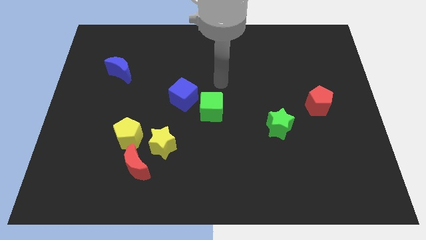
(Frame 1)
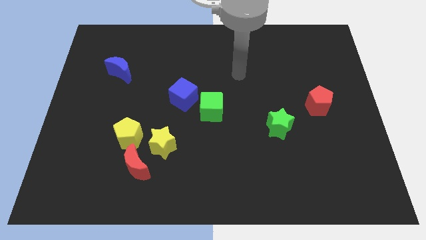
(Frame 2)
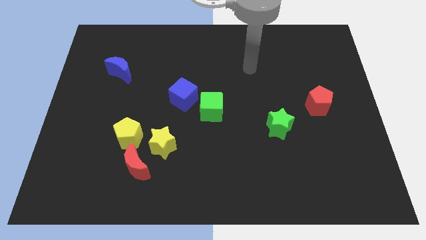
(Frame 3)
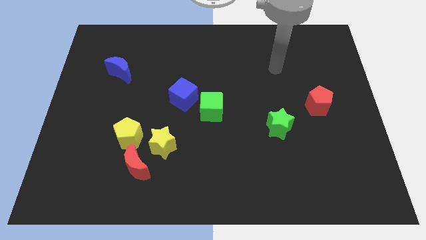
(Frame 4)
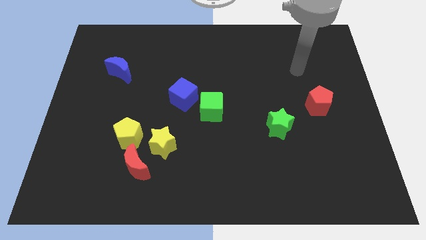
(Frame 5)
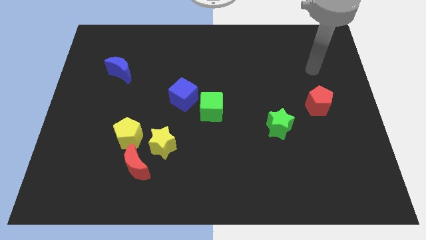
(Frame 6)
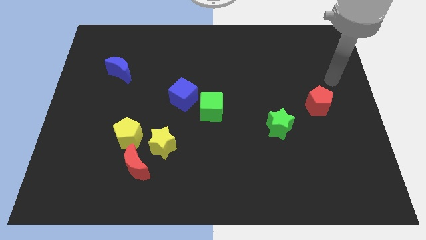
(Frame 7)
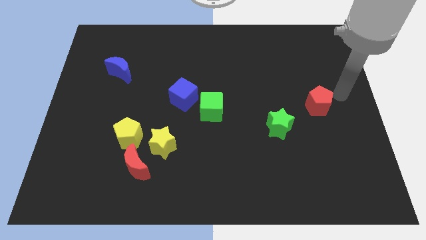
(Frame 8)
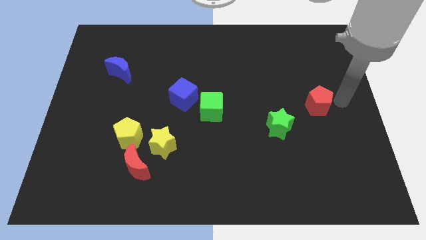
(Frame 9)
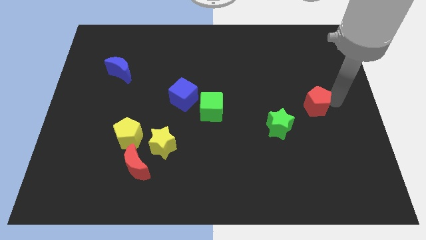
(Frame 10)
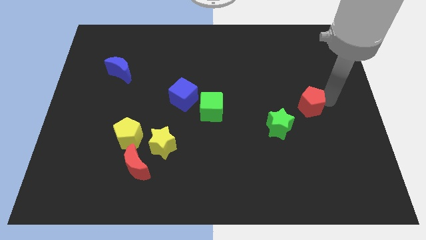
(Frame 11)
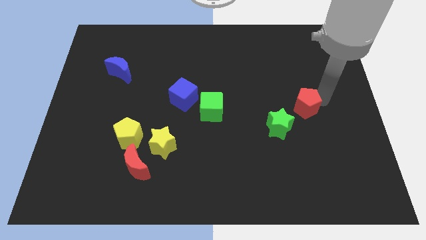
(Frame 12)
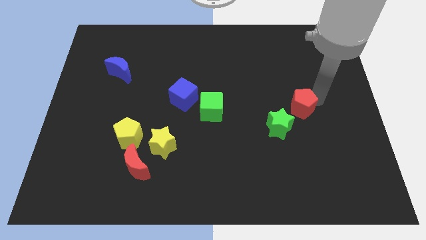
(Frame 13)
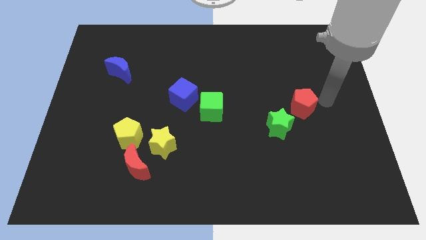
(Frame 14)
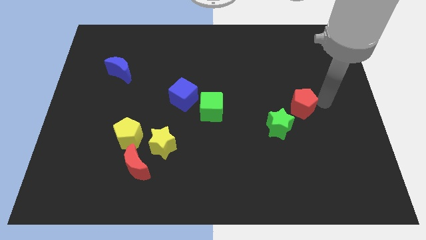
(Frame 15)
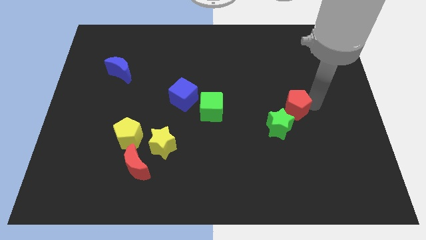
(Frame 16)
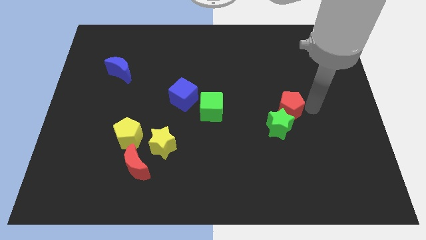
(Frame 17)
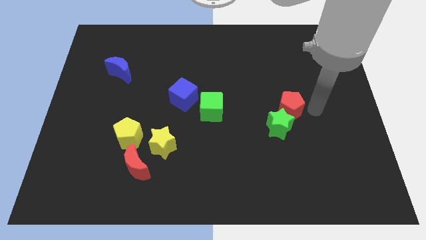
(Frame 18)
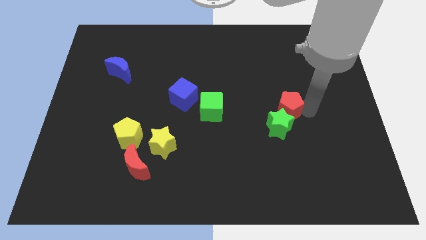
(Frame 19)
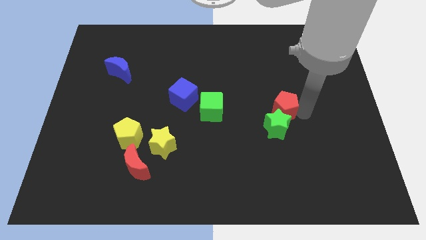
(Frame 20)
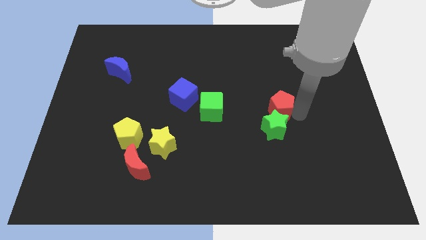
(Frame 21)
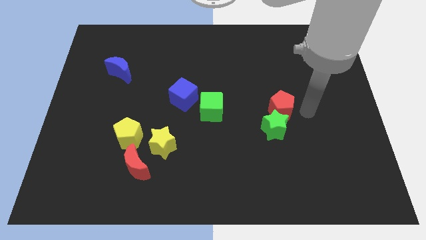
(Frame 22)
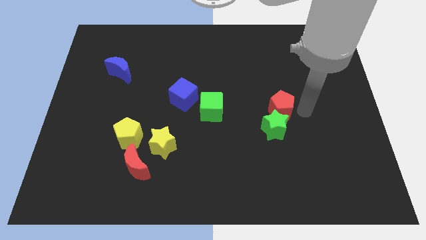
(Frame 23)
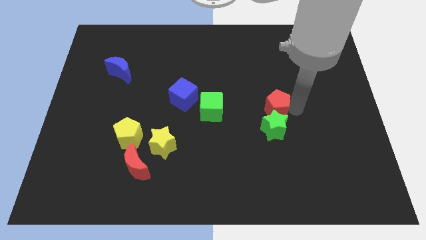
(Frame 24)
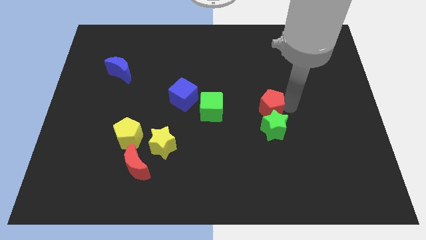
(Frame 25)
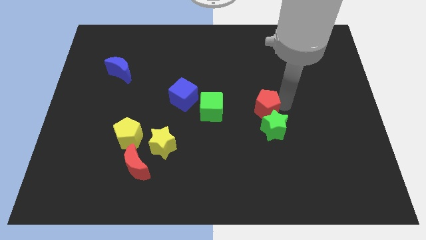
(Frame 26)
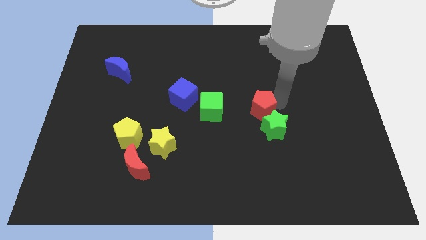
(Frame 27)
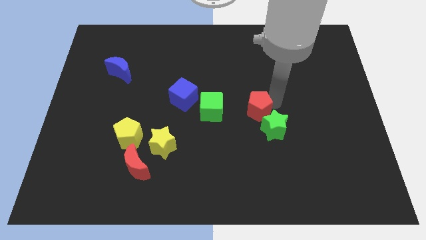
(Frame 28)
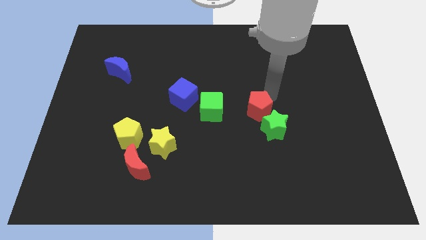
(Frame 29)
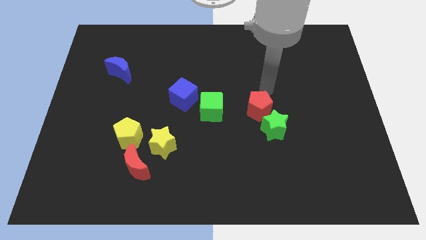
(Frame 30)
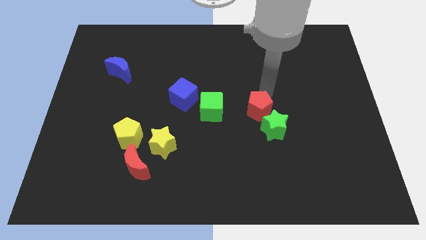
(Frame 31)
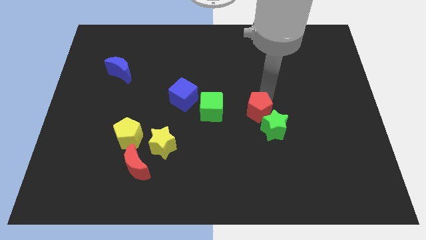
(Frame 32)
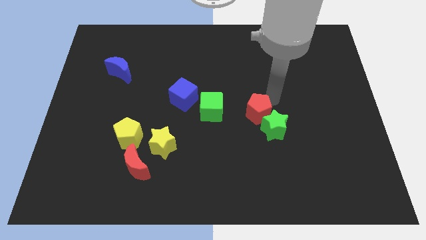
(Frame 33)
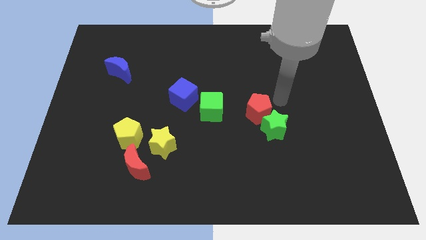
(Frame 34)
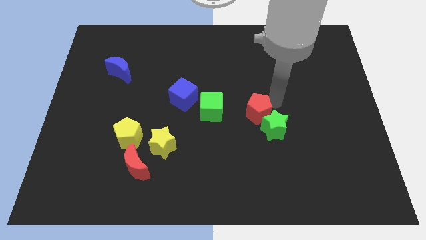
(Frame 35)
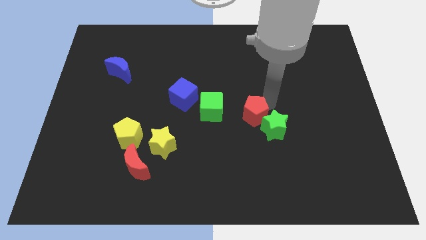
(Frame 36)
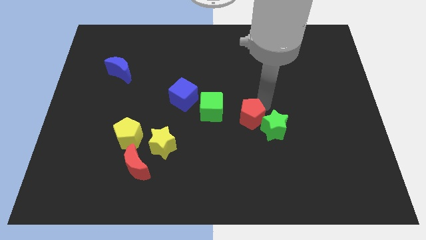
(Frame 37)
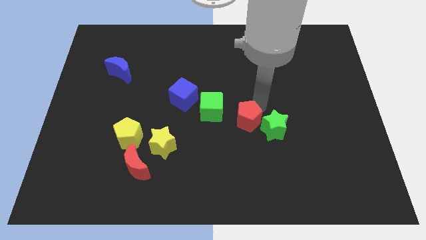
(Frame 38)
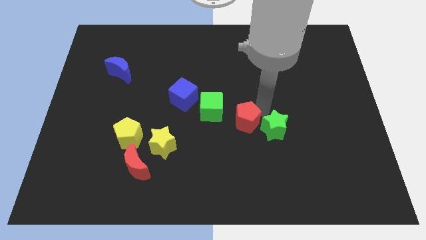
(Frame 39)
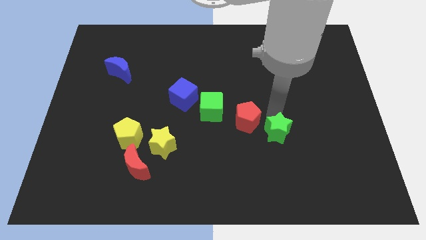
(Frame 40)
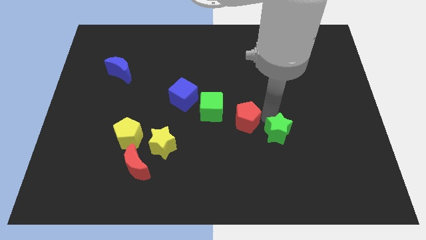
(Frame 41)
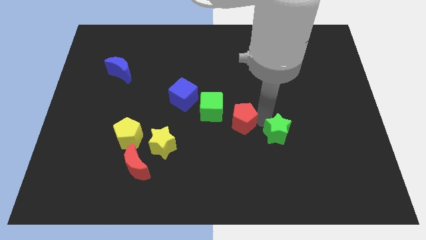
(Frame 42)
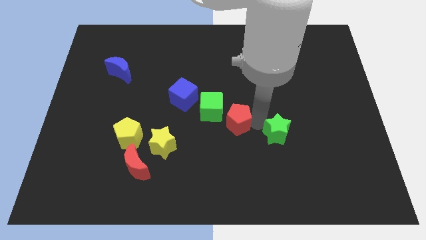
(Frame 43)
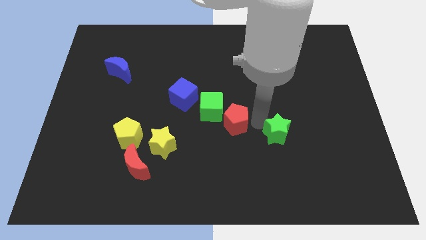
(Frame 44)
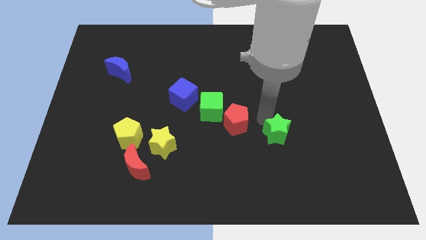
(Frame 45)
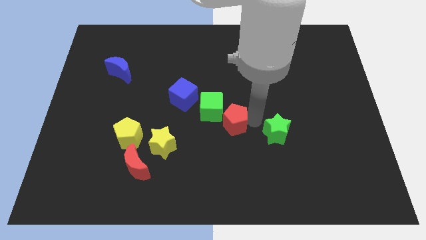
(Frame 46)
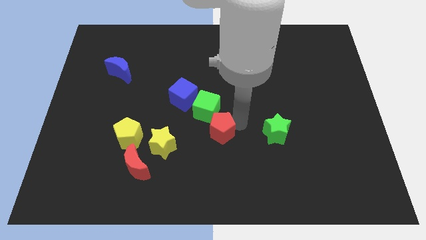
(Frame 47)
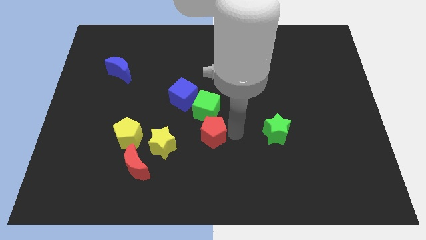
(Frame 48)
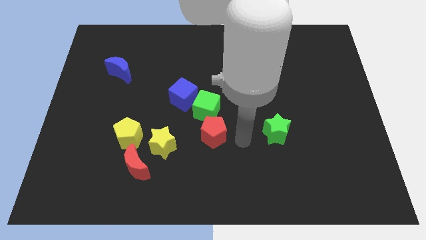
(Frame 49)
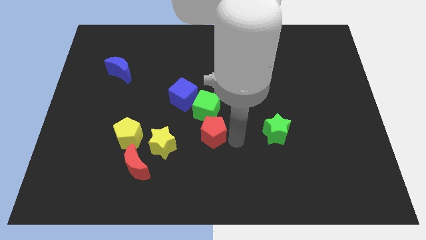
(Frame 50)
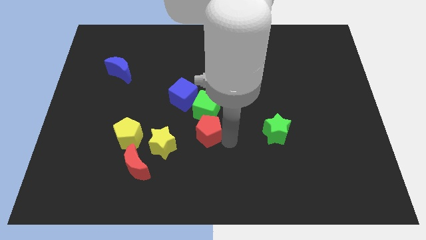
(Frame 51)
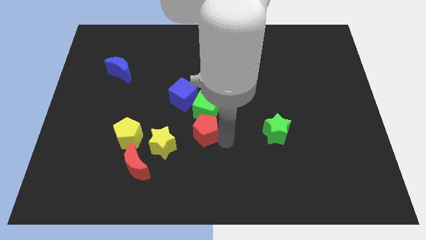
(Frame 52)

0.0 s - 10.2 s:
slide the red pentagon diagonally down and to the left of the green cube

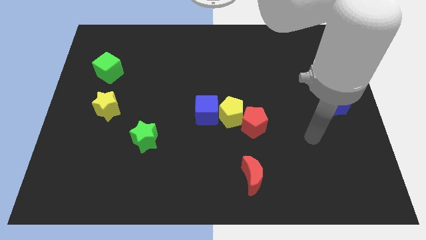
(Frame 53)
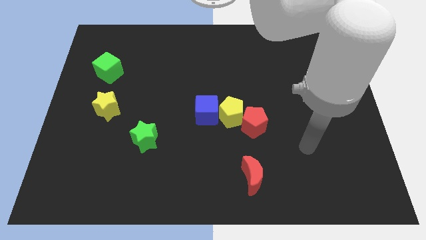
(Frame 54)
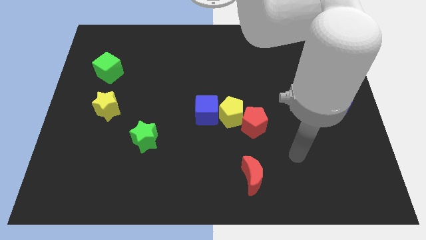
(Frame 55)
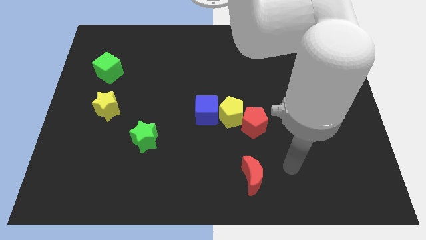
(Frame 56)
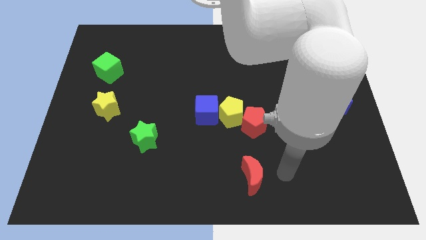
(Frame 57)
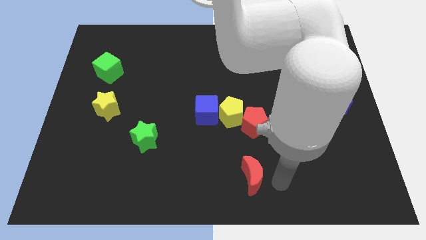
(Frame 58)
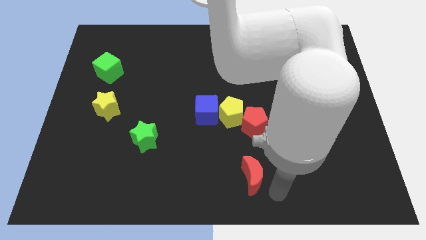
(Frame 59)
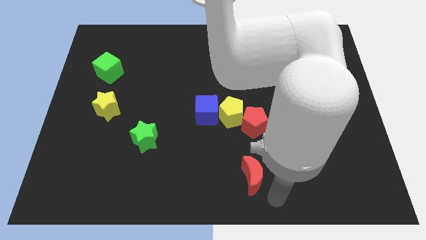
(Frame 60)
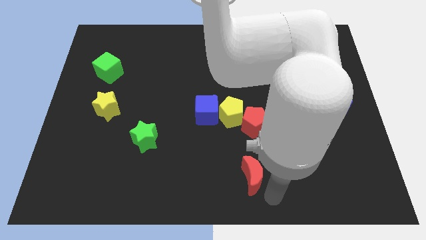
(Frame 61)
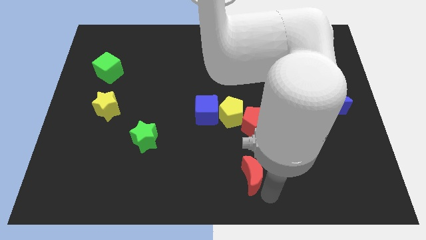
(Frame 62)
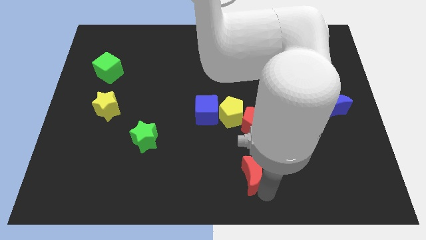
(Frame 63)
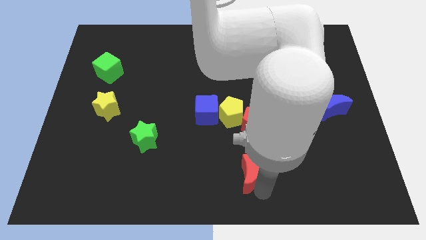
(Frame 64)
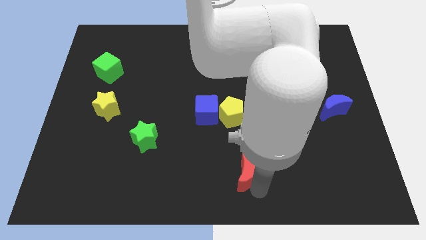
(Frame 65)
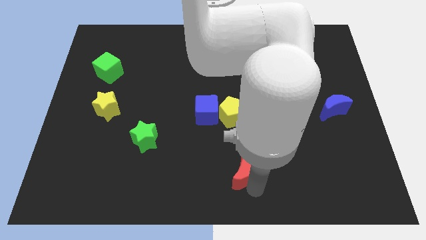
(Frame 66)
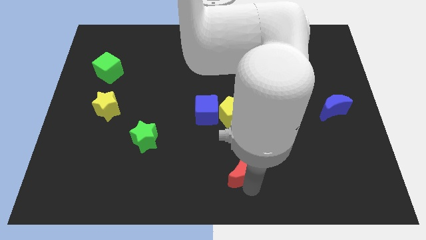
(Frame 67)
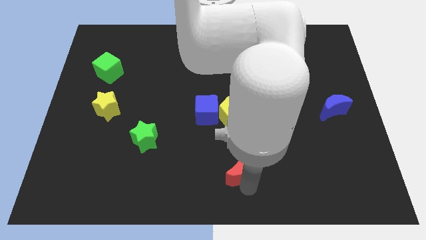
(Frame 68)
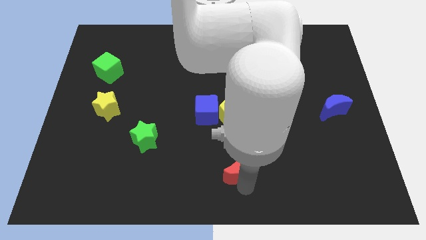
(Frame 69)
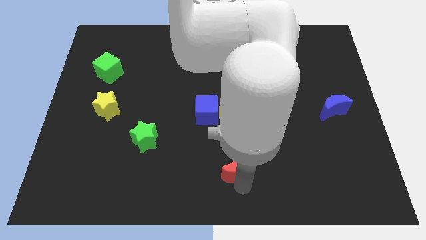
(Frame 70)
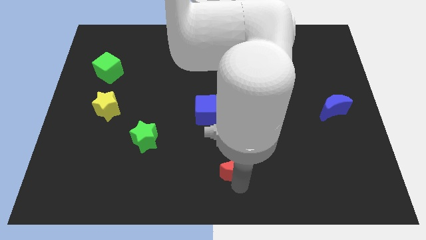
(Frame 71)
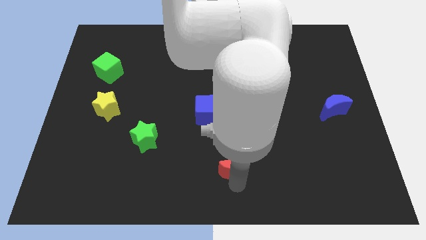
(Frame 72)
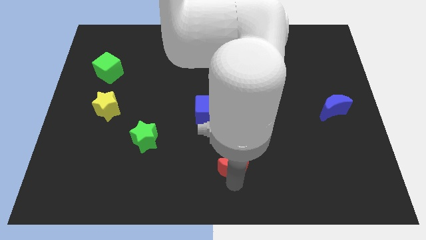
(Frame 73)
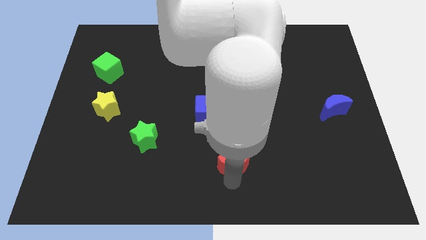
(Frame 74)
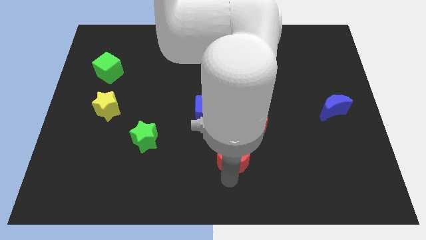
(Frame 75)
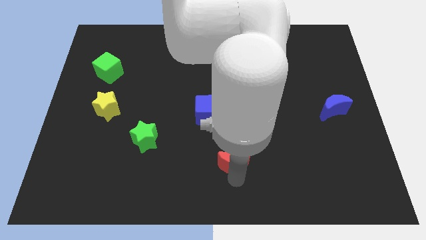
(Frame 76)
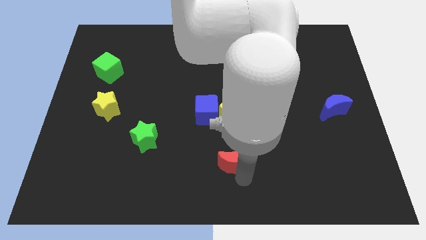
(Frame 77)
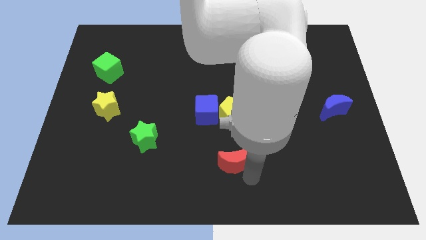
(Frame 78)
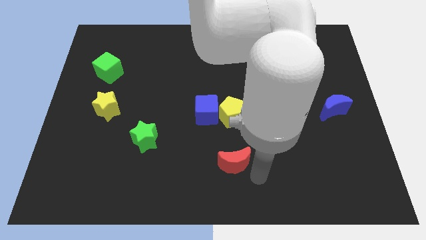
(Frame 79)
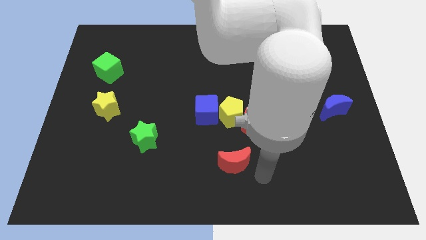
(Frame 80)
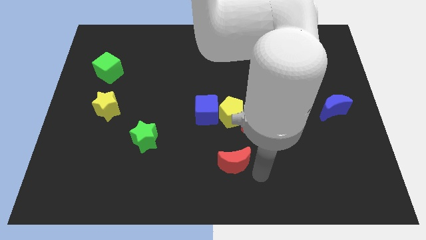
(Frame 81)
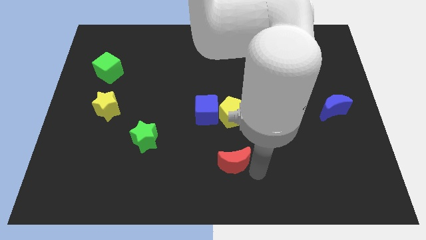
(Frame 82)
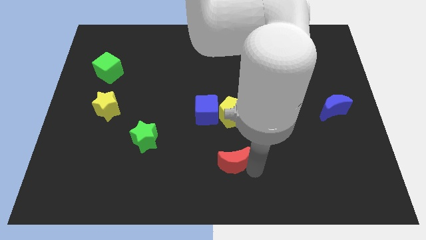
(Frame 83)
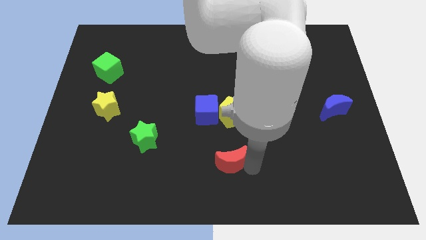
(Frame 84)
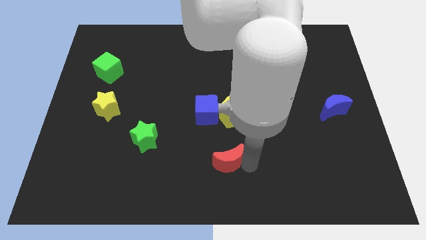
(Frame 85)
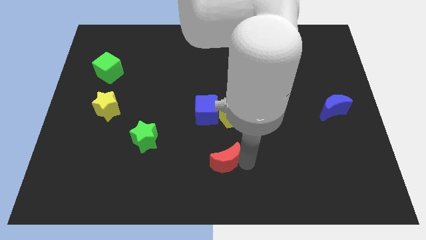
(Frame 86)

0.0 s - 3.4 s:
slide the red moon to the bottom of the blue cube
